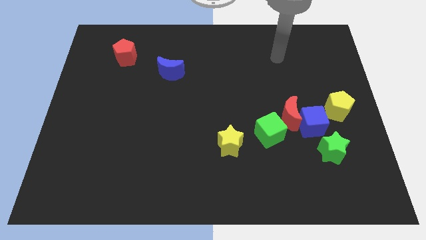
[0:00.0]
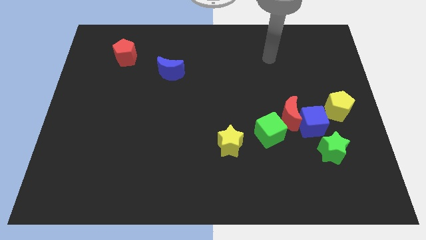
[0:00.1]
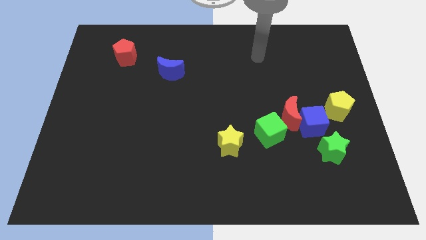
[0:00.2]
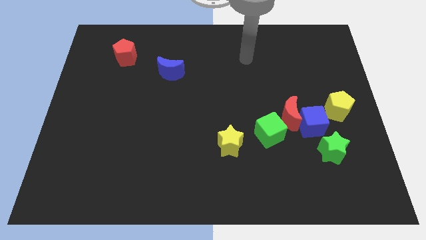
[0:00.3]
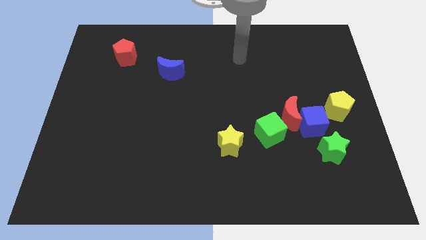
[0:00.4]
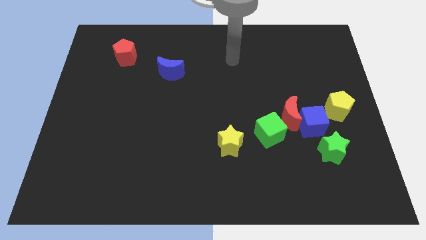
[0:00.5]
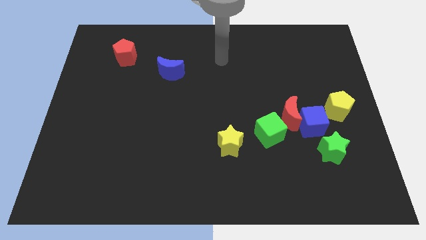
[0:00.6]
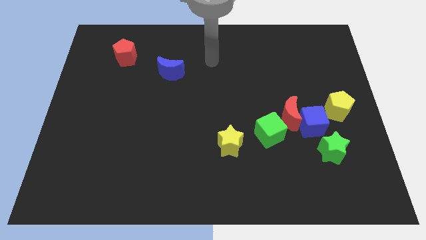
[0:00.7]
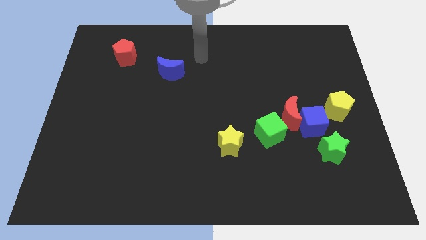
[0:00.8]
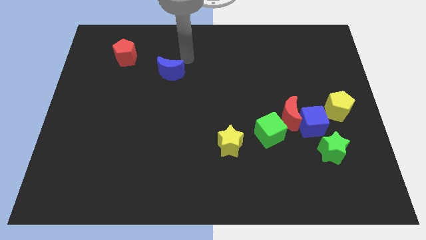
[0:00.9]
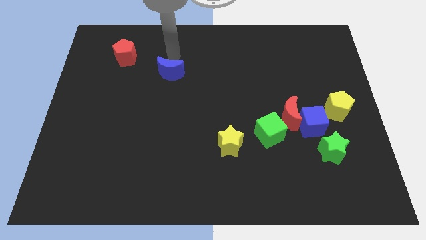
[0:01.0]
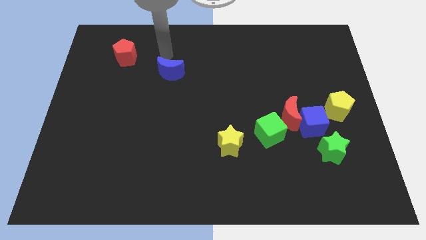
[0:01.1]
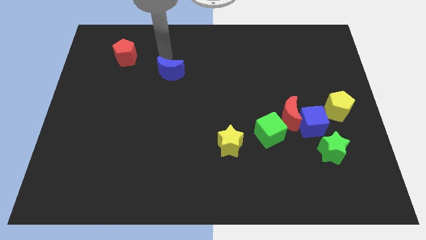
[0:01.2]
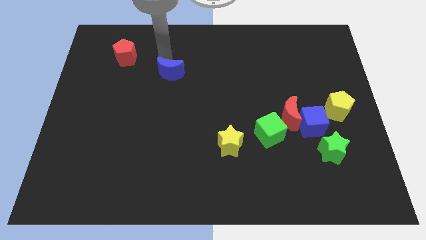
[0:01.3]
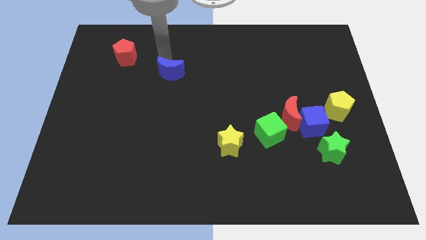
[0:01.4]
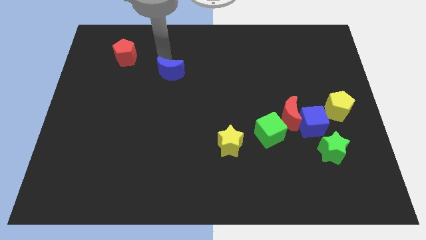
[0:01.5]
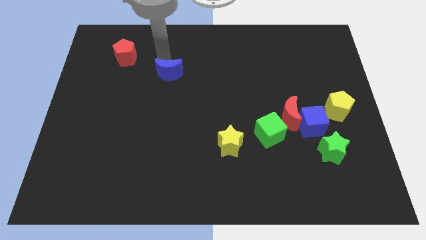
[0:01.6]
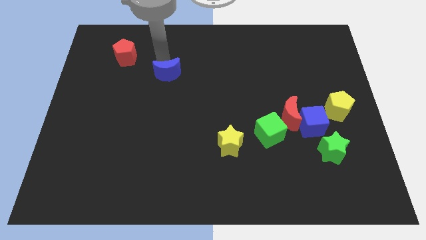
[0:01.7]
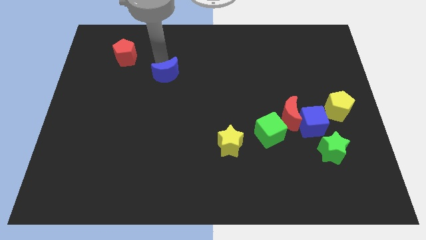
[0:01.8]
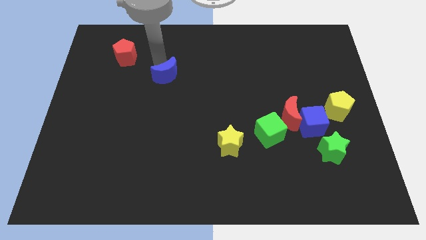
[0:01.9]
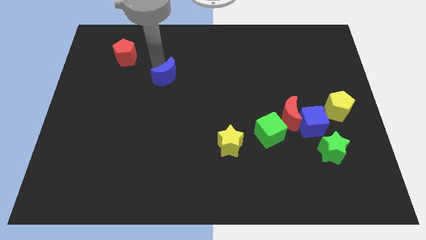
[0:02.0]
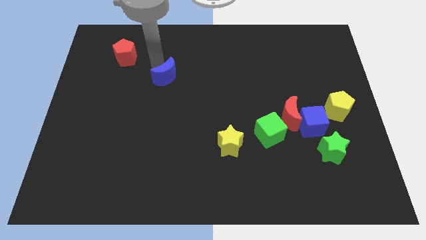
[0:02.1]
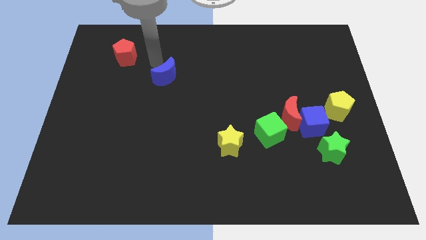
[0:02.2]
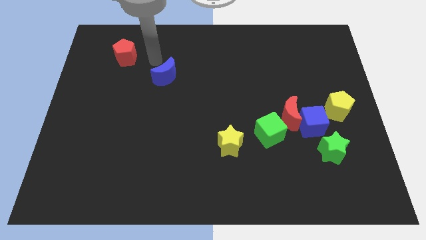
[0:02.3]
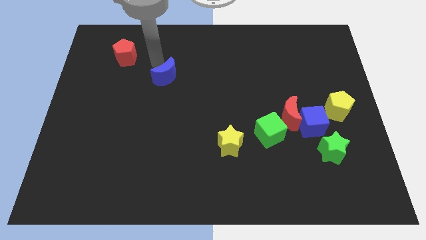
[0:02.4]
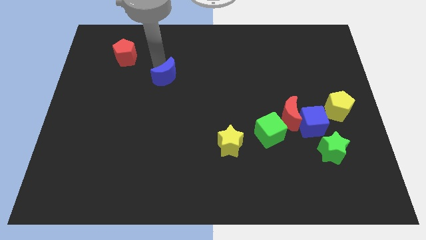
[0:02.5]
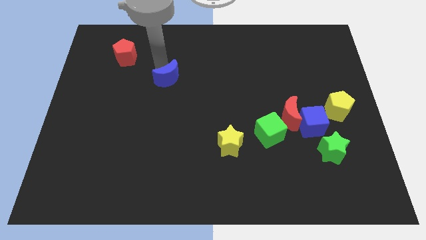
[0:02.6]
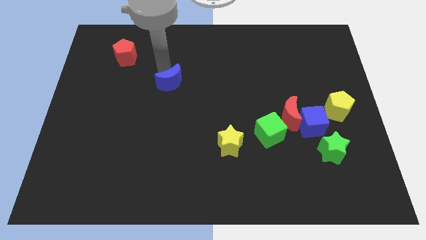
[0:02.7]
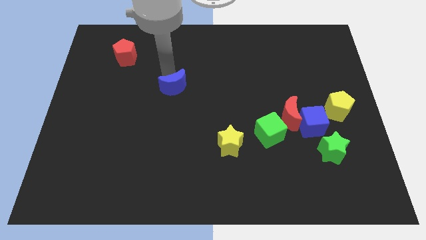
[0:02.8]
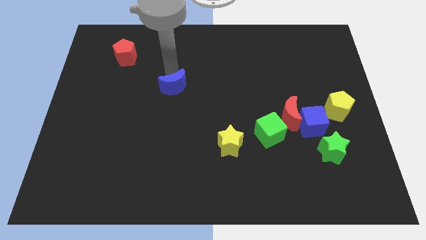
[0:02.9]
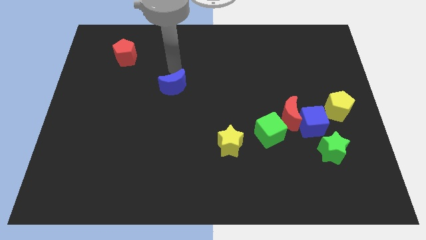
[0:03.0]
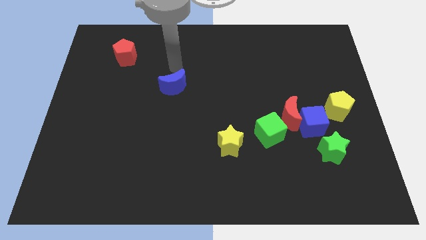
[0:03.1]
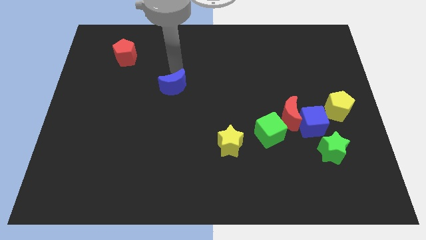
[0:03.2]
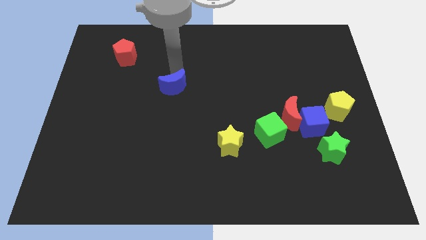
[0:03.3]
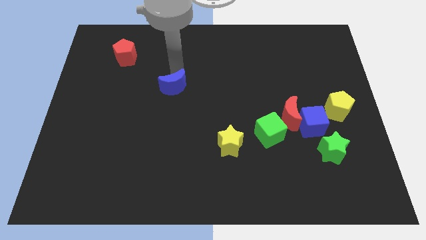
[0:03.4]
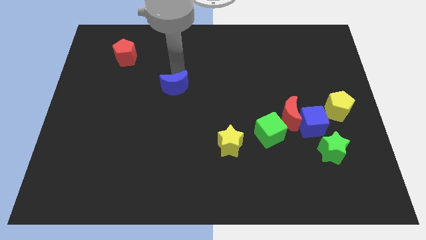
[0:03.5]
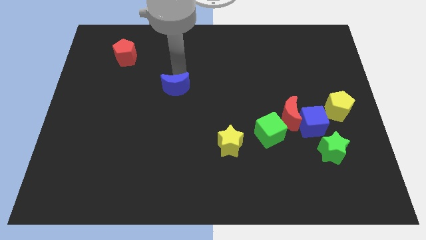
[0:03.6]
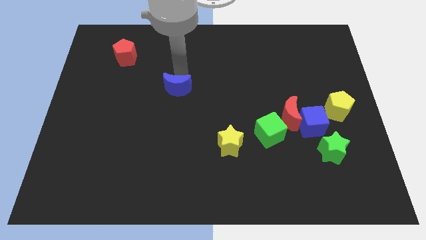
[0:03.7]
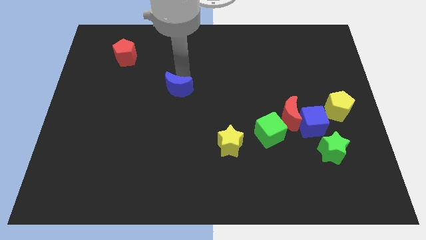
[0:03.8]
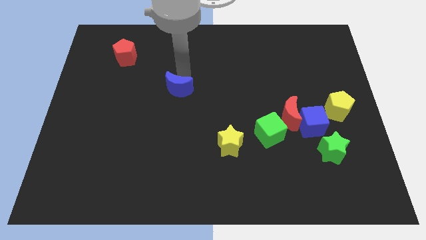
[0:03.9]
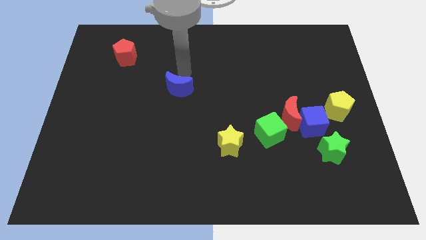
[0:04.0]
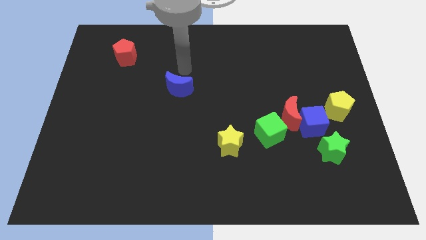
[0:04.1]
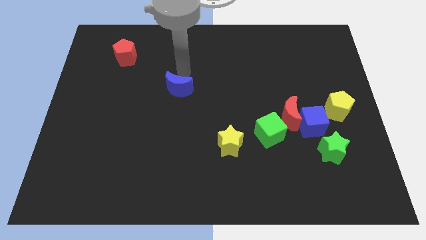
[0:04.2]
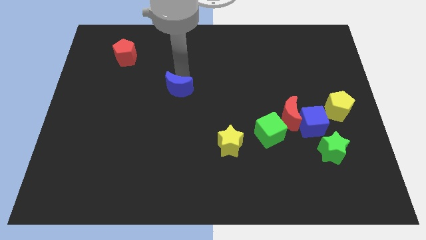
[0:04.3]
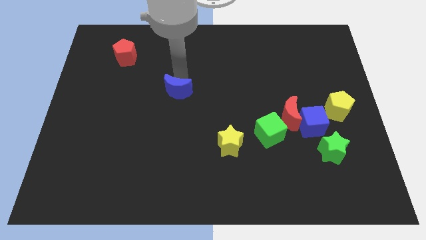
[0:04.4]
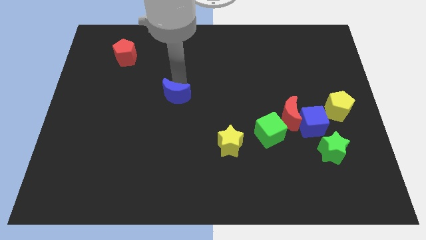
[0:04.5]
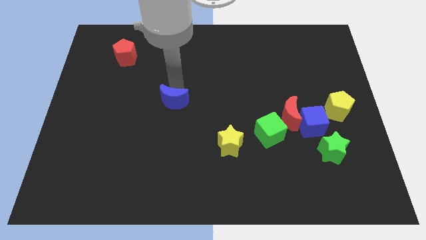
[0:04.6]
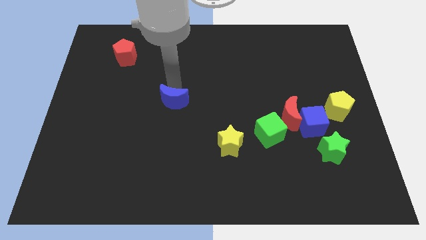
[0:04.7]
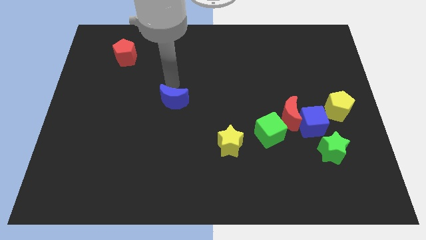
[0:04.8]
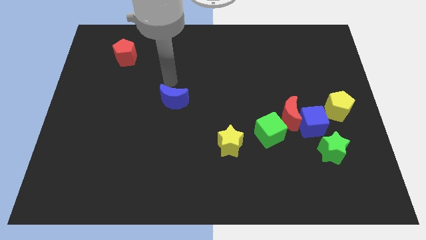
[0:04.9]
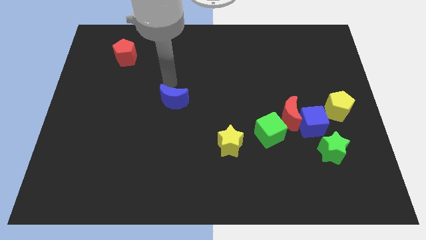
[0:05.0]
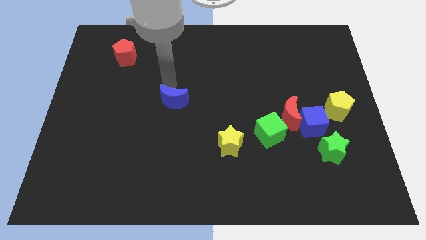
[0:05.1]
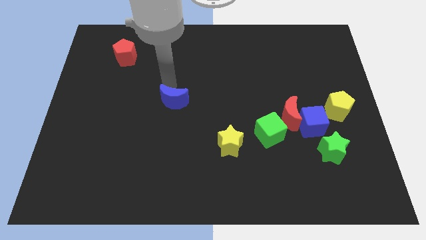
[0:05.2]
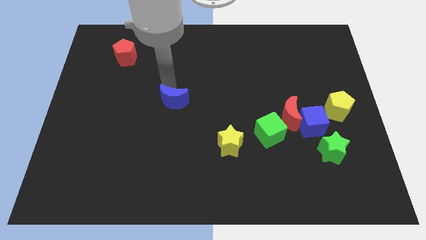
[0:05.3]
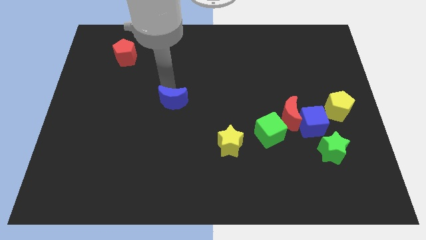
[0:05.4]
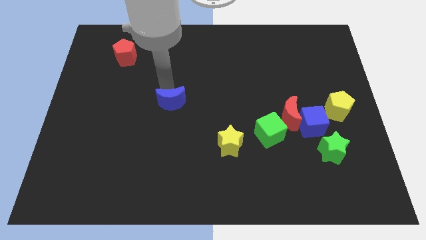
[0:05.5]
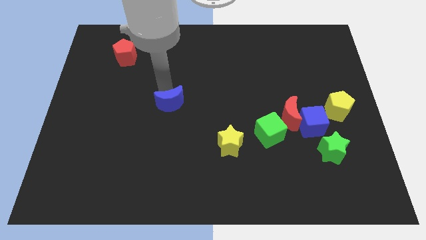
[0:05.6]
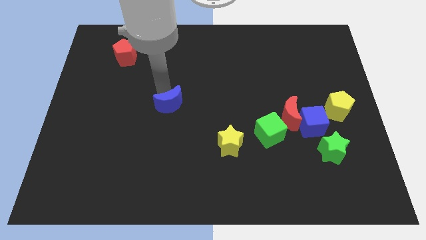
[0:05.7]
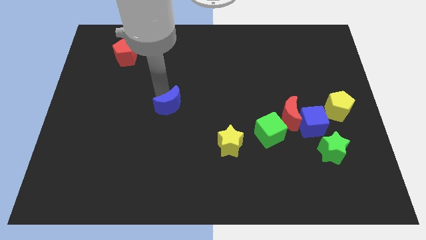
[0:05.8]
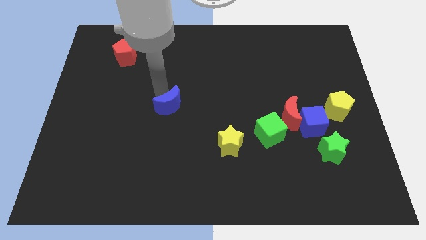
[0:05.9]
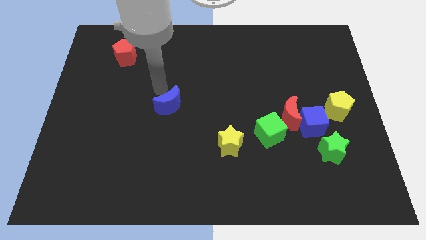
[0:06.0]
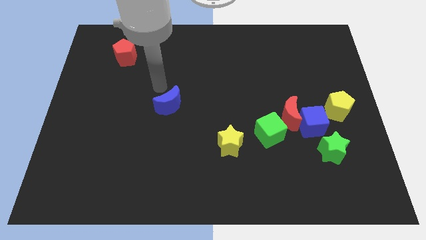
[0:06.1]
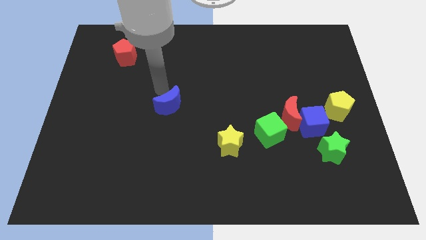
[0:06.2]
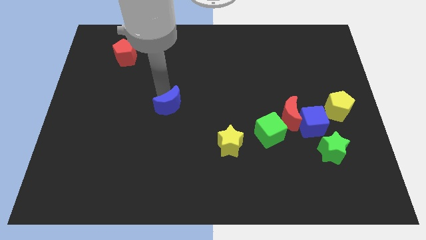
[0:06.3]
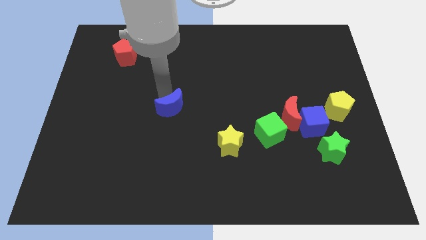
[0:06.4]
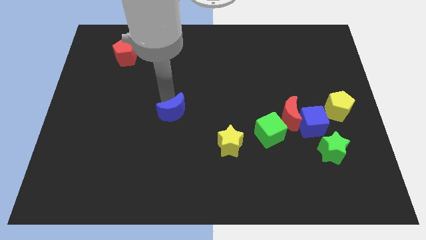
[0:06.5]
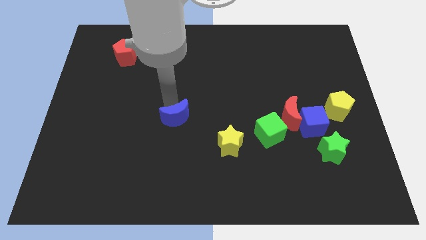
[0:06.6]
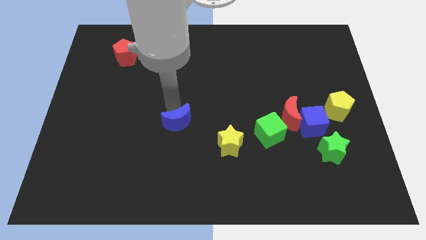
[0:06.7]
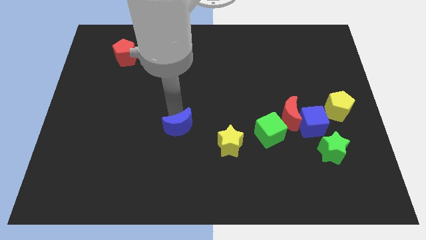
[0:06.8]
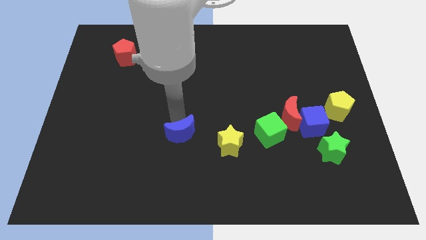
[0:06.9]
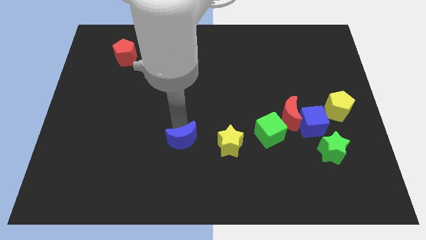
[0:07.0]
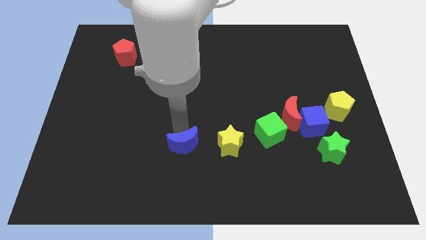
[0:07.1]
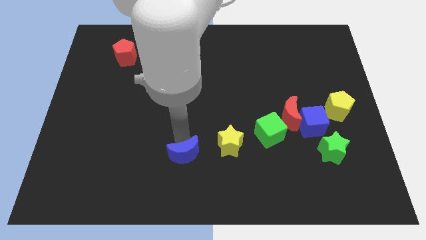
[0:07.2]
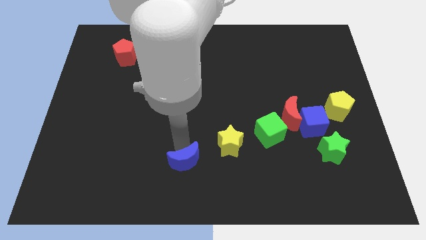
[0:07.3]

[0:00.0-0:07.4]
put the blue moon to the bottom side
